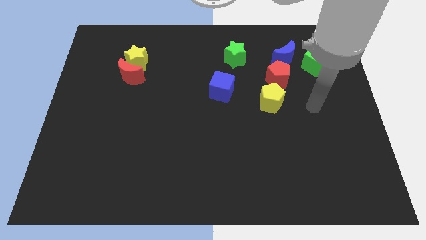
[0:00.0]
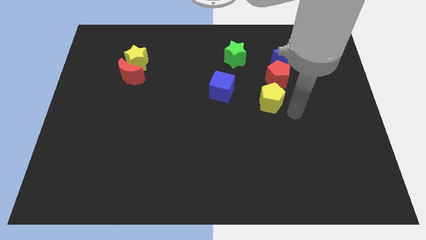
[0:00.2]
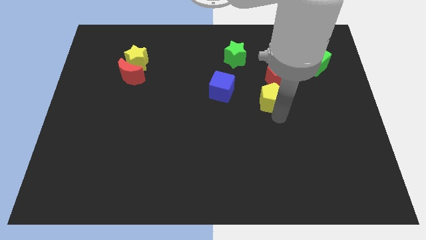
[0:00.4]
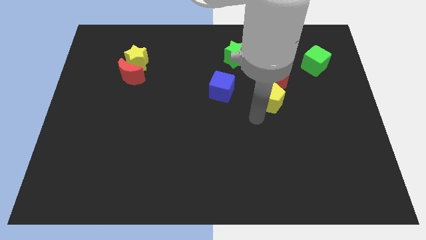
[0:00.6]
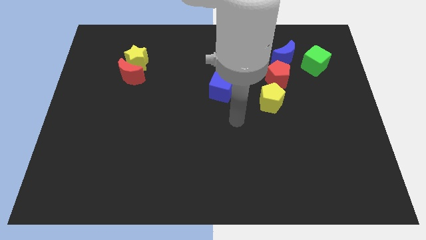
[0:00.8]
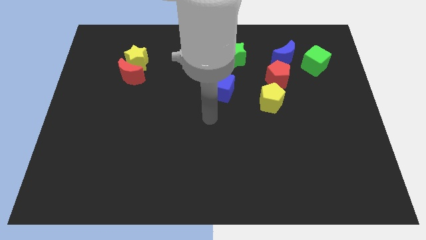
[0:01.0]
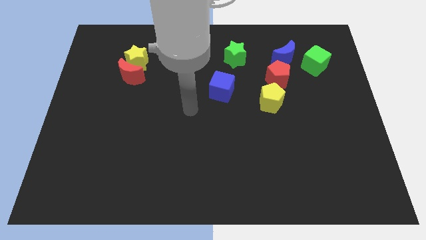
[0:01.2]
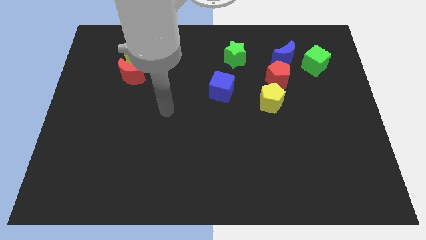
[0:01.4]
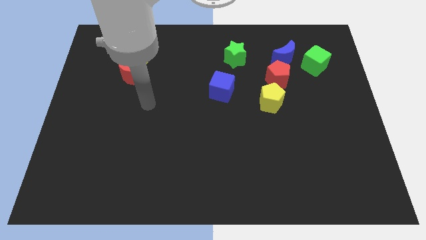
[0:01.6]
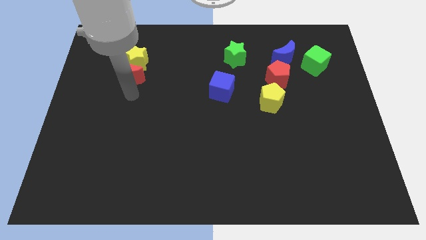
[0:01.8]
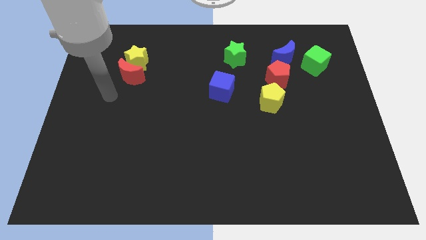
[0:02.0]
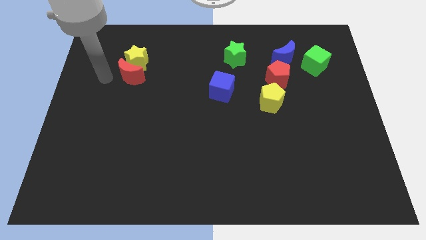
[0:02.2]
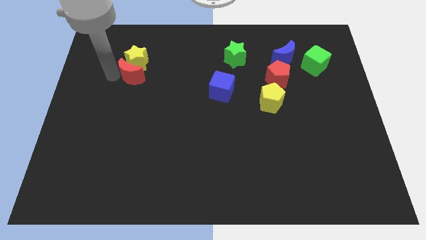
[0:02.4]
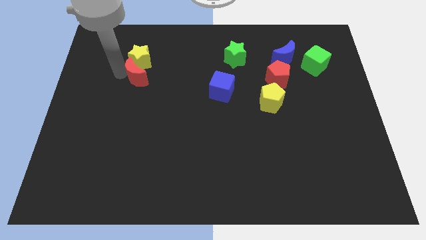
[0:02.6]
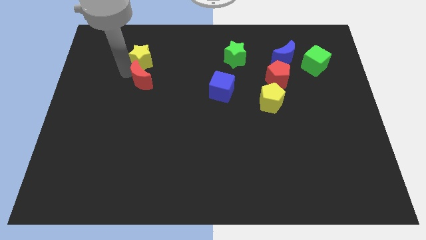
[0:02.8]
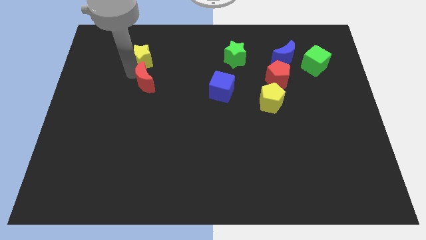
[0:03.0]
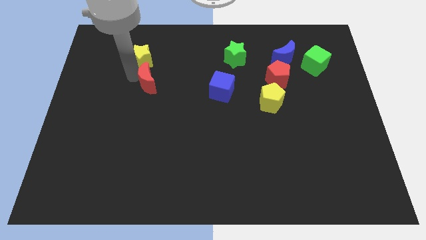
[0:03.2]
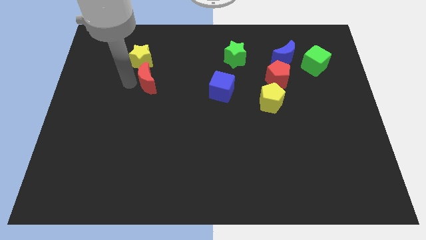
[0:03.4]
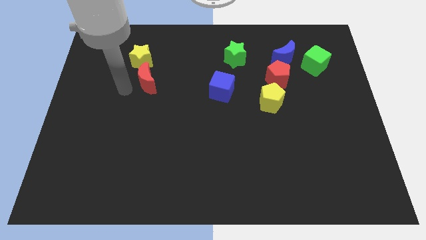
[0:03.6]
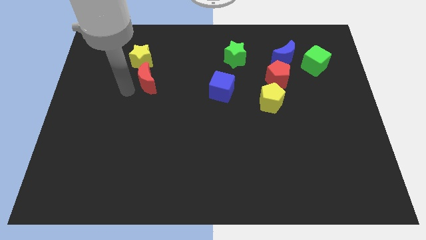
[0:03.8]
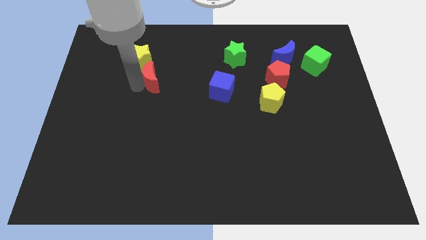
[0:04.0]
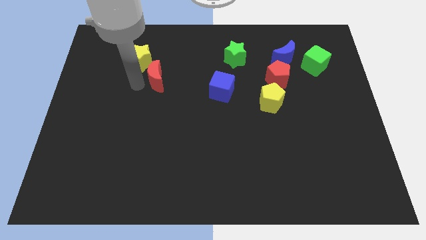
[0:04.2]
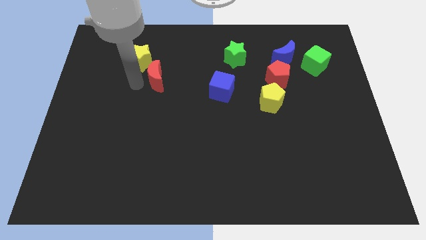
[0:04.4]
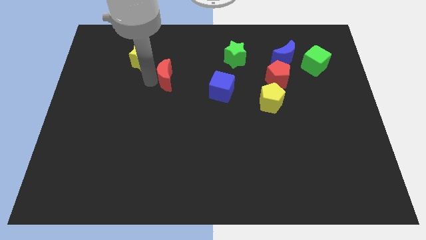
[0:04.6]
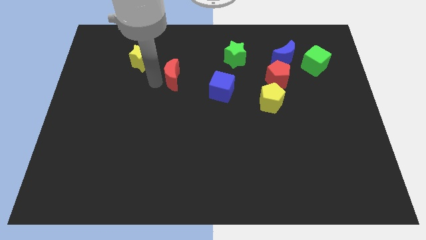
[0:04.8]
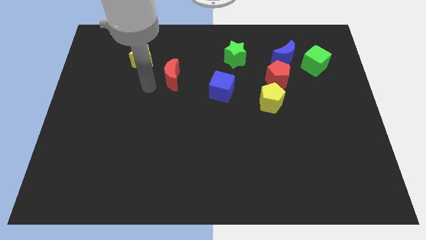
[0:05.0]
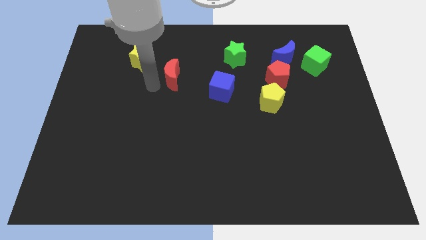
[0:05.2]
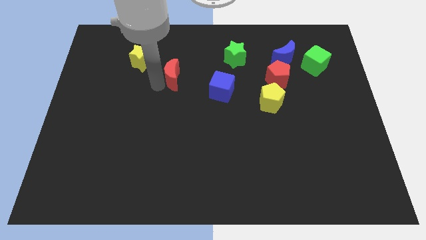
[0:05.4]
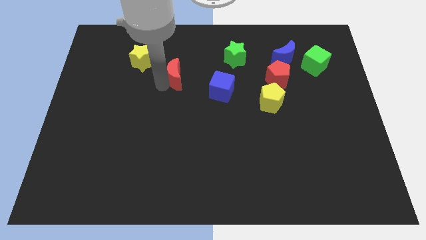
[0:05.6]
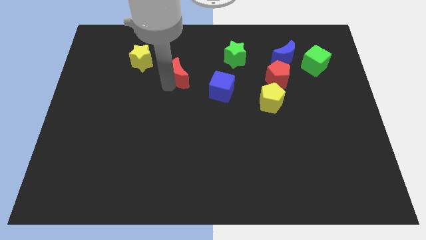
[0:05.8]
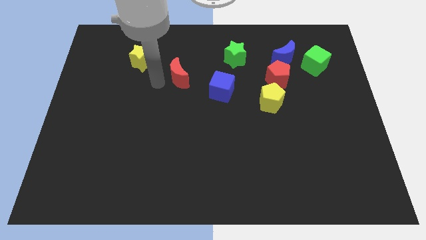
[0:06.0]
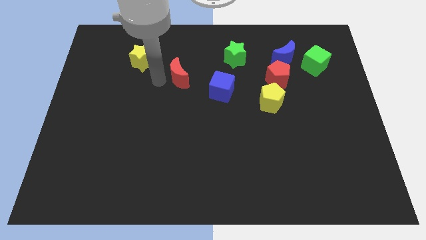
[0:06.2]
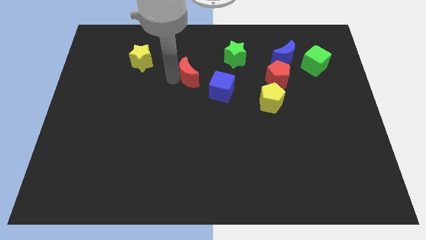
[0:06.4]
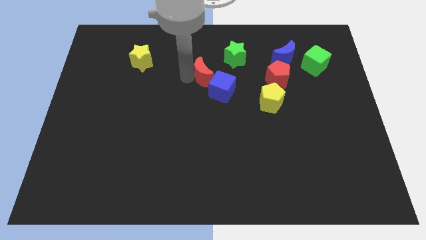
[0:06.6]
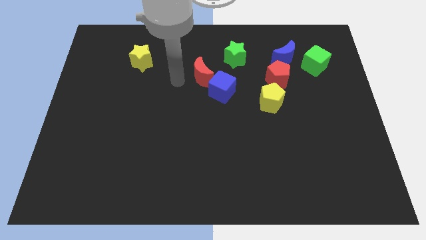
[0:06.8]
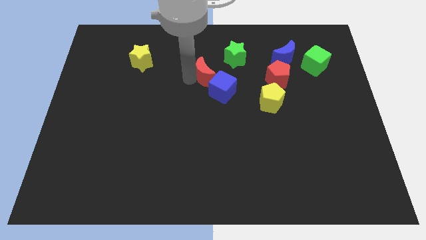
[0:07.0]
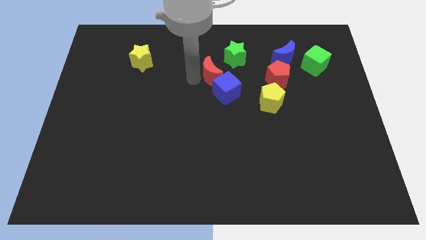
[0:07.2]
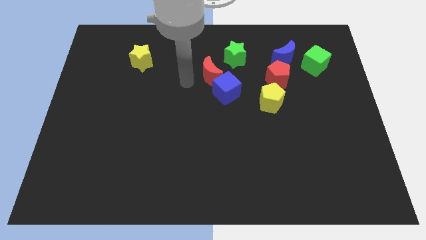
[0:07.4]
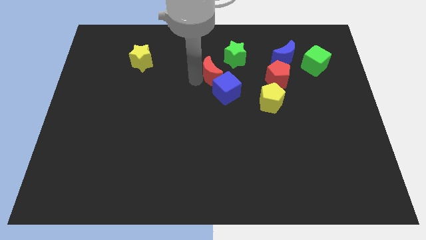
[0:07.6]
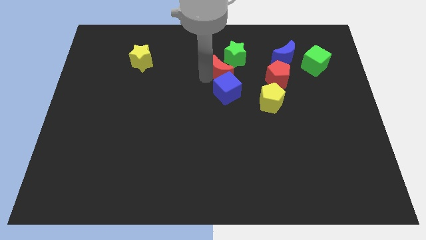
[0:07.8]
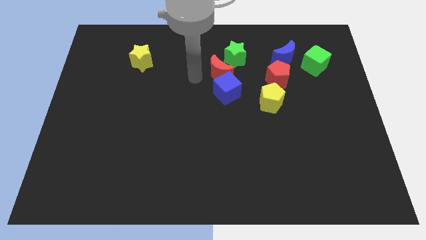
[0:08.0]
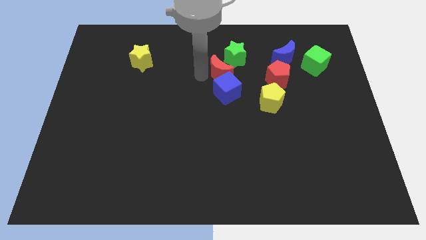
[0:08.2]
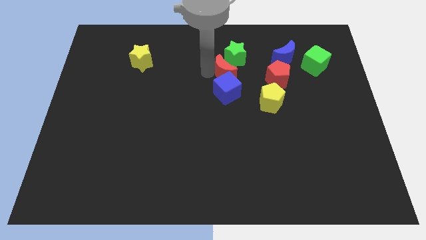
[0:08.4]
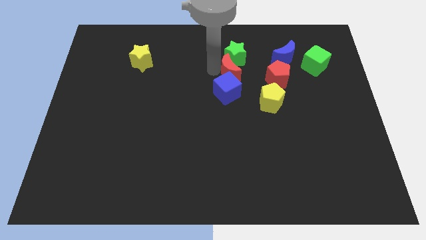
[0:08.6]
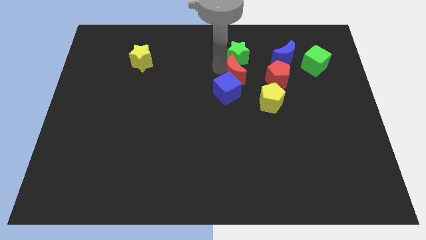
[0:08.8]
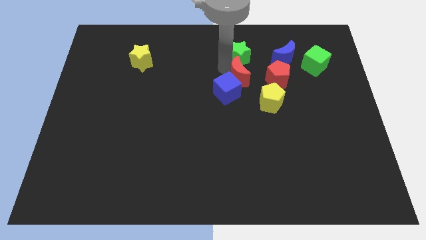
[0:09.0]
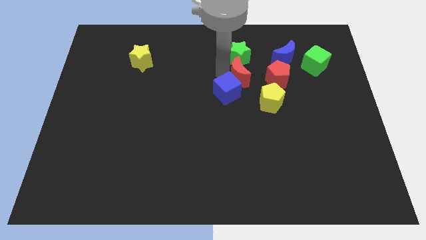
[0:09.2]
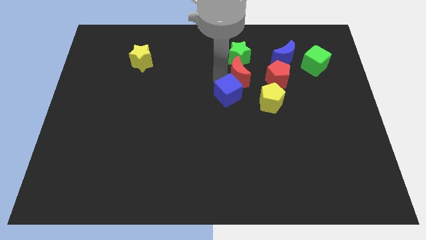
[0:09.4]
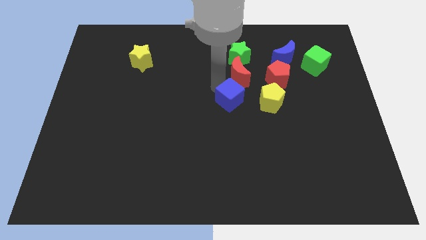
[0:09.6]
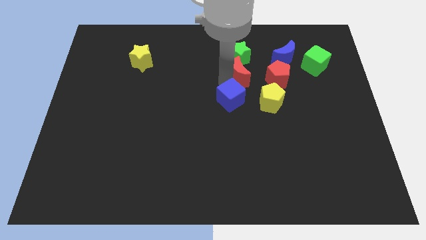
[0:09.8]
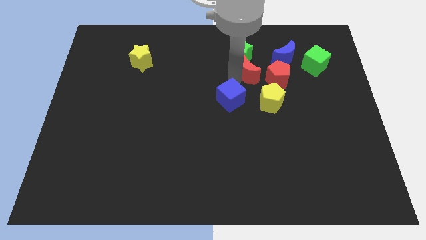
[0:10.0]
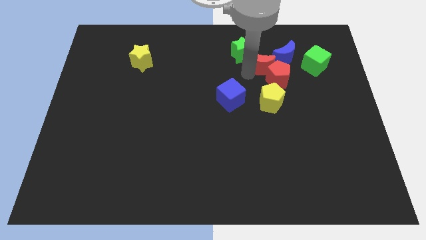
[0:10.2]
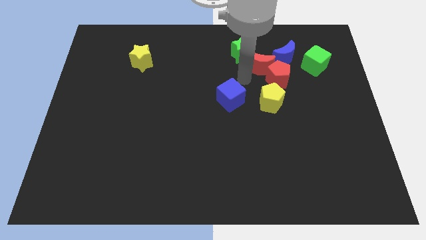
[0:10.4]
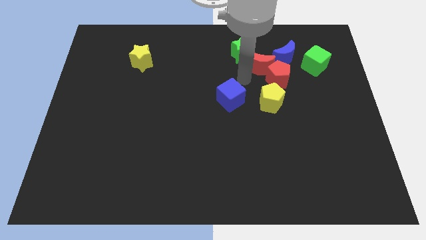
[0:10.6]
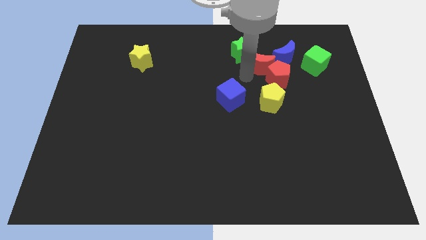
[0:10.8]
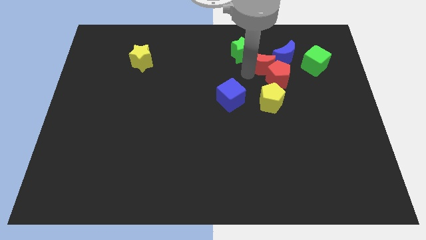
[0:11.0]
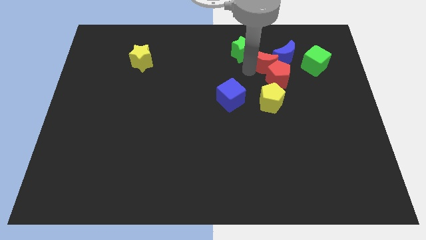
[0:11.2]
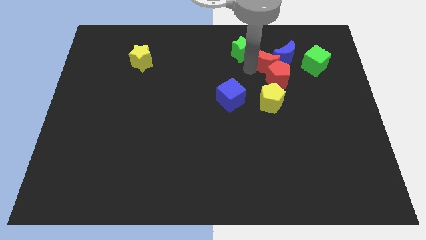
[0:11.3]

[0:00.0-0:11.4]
move the red moon towards the blue moon

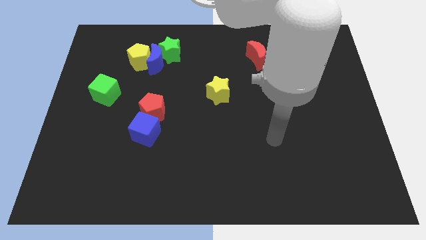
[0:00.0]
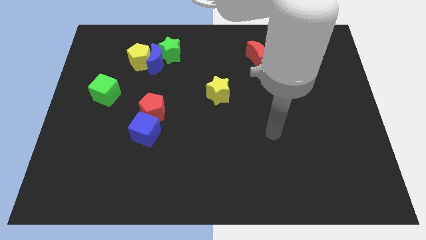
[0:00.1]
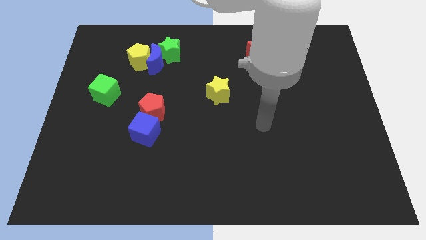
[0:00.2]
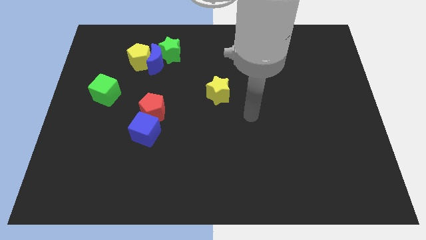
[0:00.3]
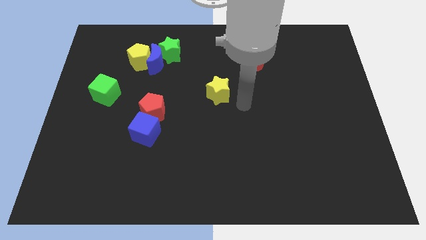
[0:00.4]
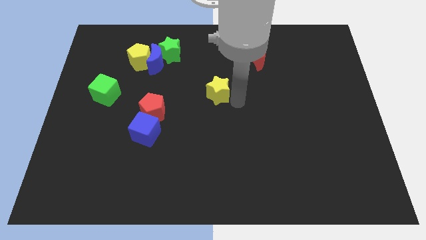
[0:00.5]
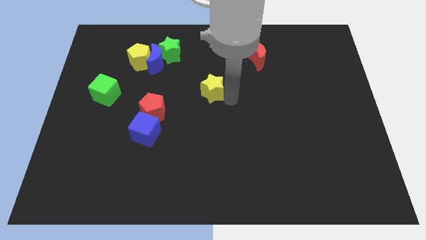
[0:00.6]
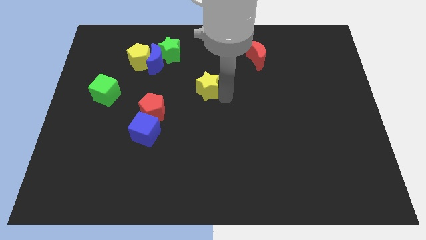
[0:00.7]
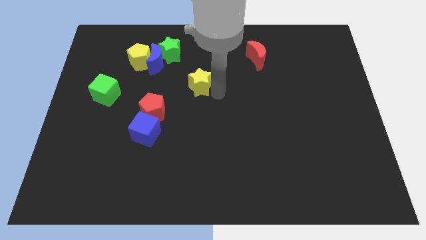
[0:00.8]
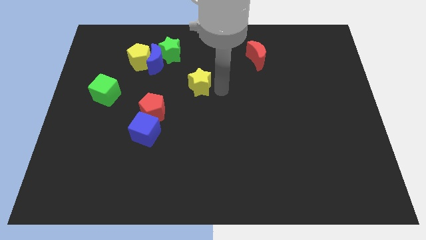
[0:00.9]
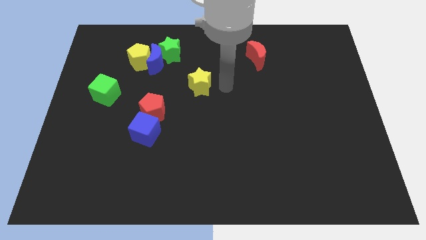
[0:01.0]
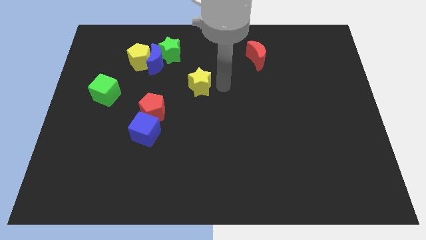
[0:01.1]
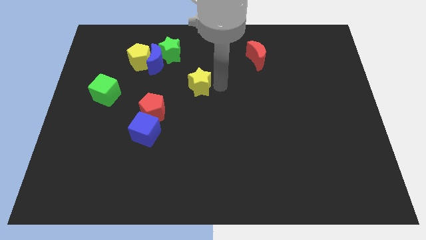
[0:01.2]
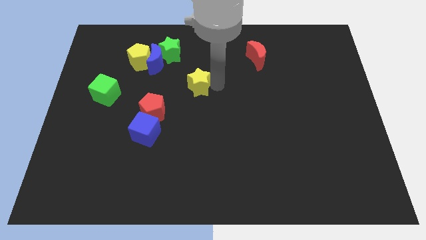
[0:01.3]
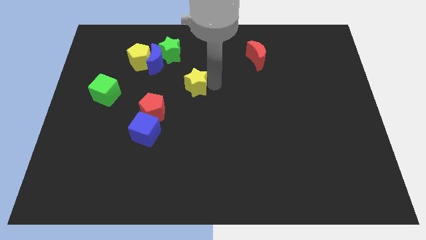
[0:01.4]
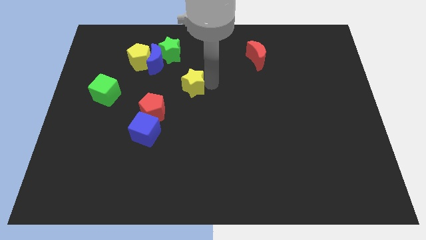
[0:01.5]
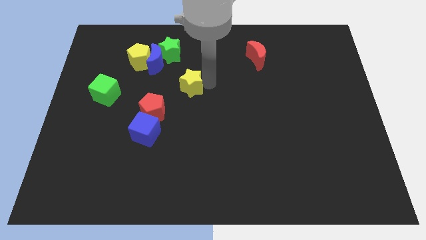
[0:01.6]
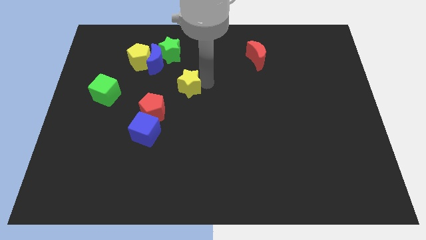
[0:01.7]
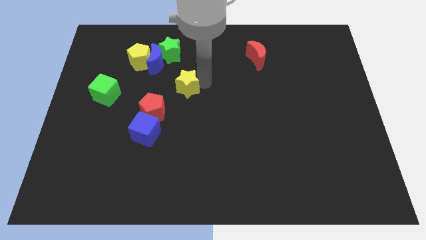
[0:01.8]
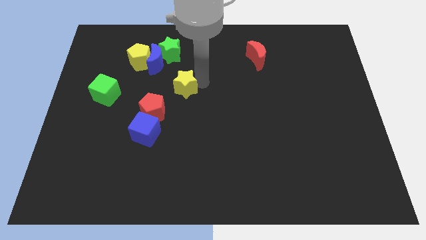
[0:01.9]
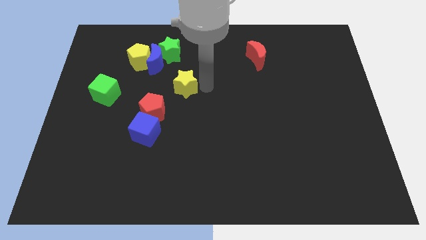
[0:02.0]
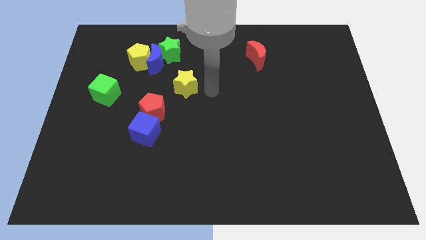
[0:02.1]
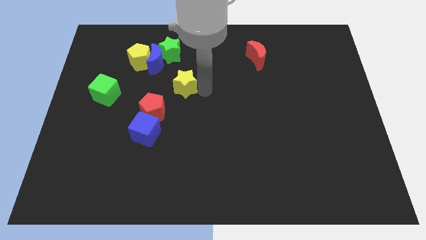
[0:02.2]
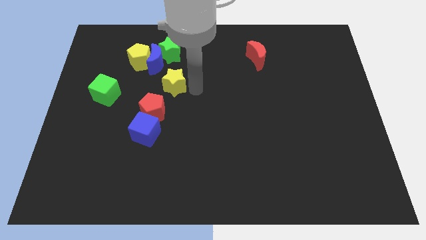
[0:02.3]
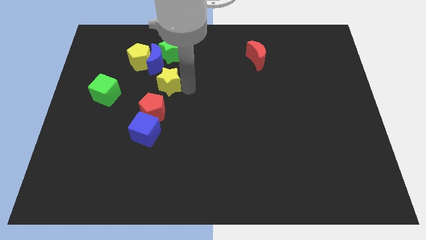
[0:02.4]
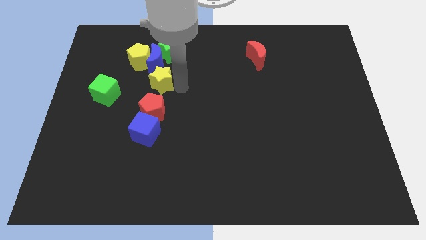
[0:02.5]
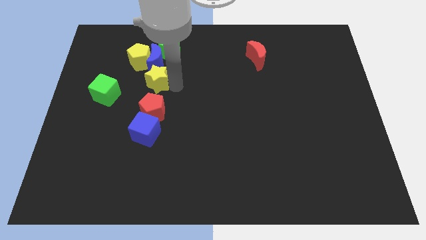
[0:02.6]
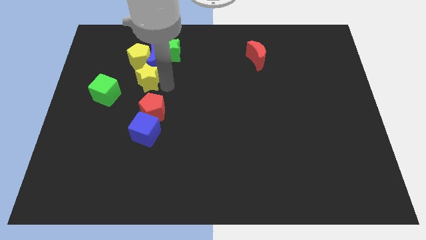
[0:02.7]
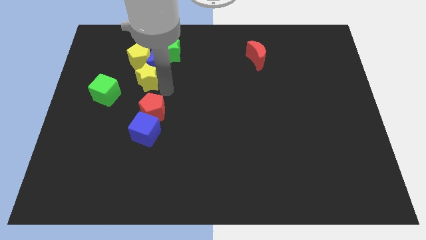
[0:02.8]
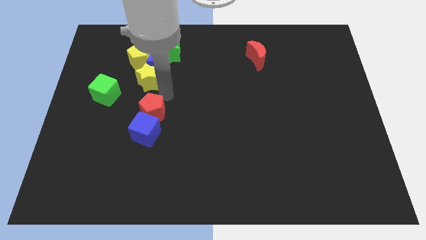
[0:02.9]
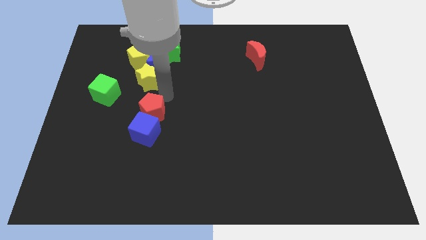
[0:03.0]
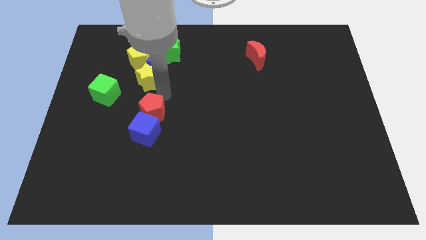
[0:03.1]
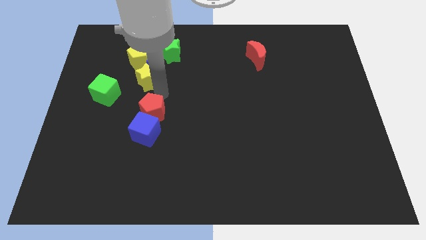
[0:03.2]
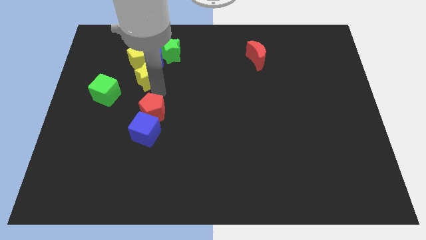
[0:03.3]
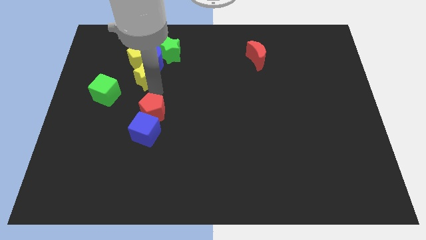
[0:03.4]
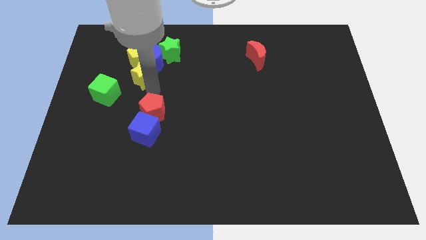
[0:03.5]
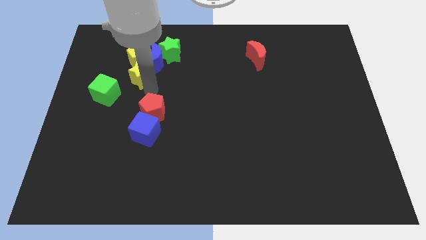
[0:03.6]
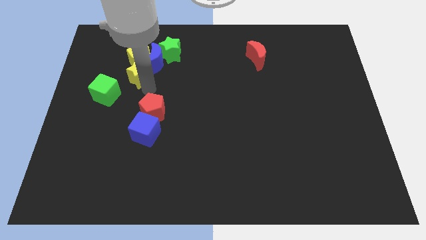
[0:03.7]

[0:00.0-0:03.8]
move the yellow star towards the yellow pentagon
